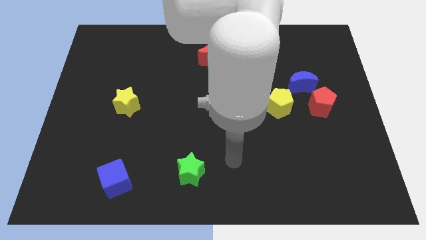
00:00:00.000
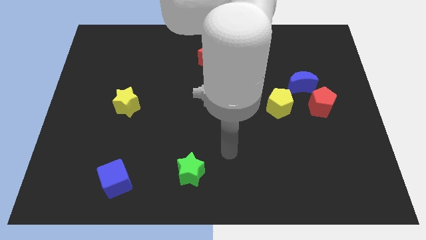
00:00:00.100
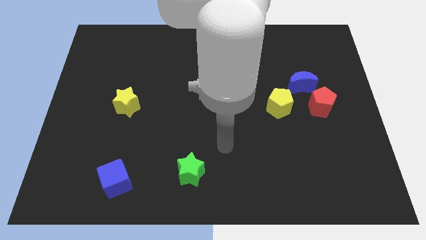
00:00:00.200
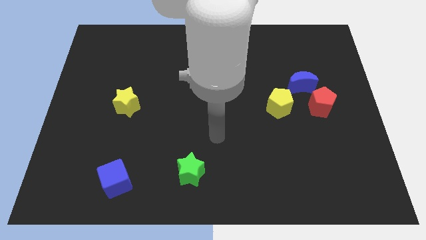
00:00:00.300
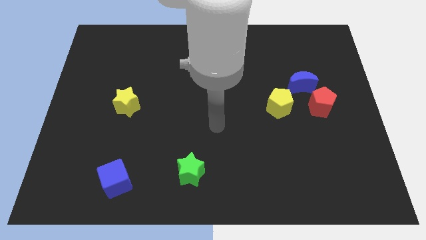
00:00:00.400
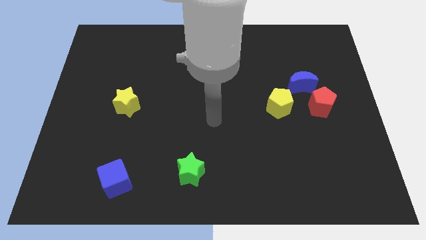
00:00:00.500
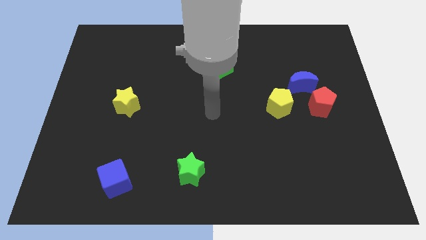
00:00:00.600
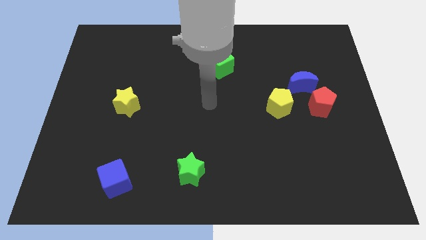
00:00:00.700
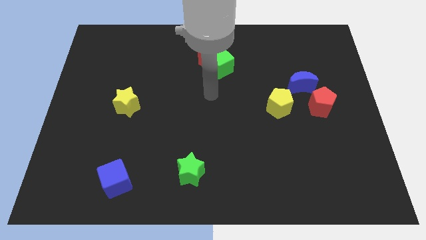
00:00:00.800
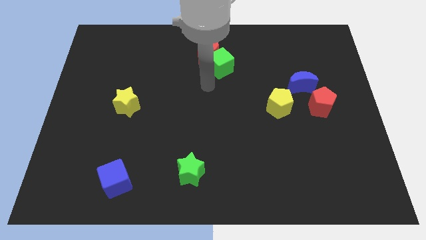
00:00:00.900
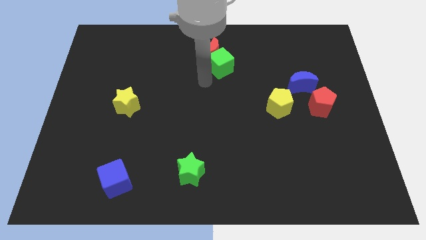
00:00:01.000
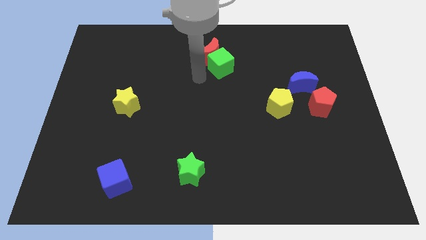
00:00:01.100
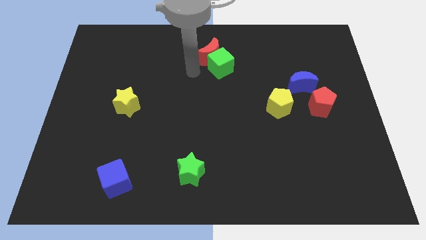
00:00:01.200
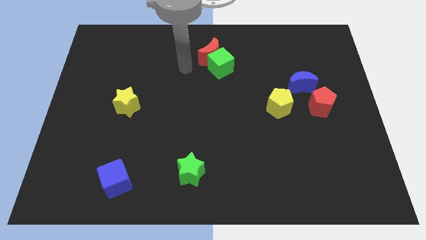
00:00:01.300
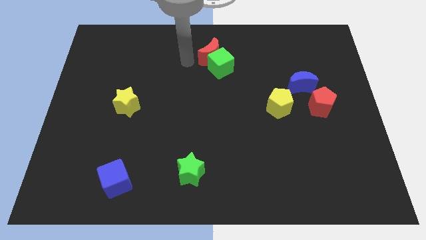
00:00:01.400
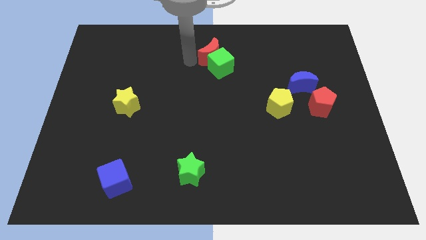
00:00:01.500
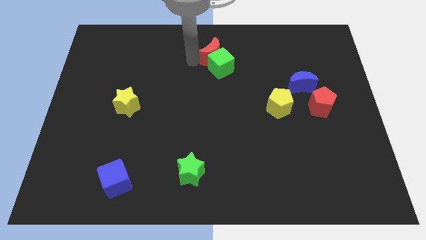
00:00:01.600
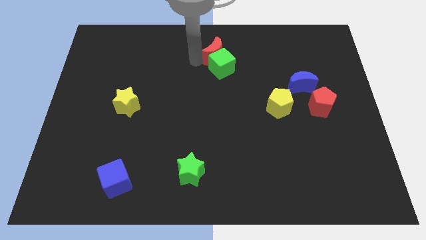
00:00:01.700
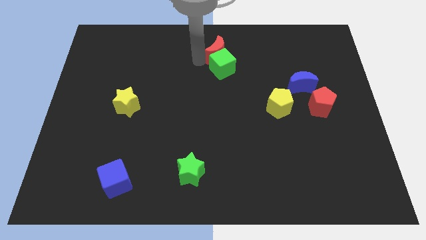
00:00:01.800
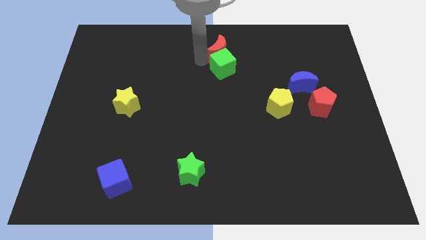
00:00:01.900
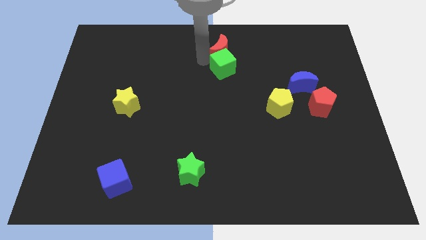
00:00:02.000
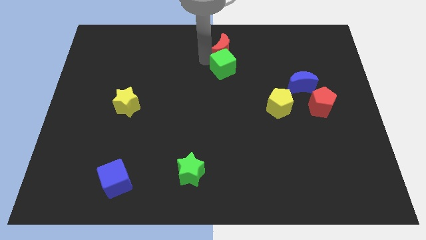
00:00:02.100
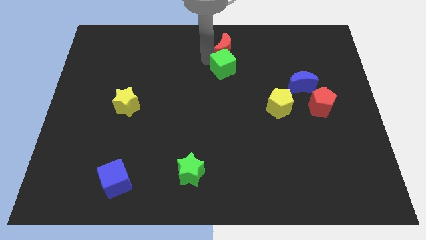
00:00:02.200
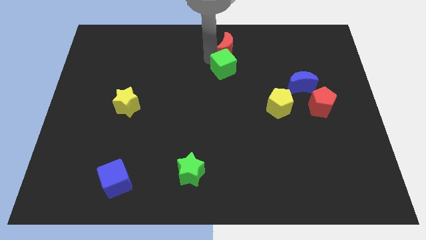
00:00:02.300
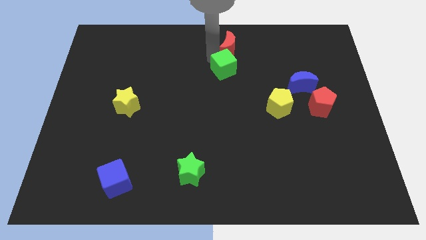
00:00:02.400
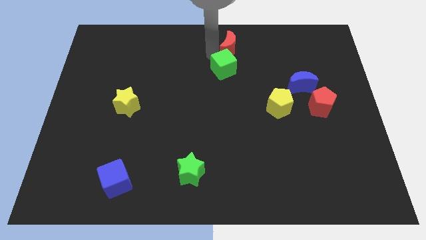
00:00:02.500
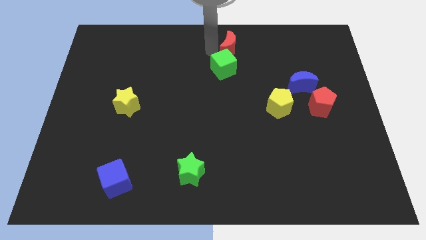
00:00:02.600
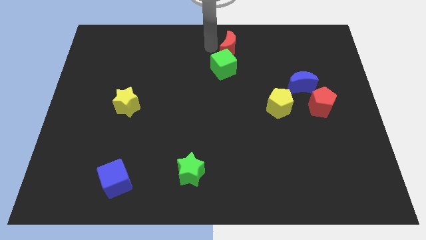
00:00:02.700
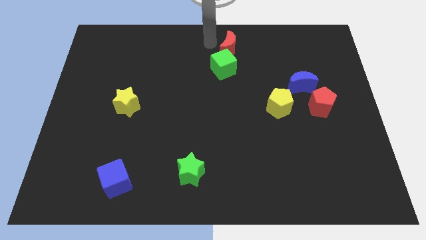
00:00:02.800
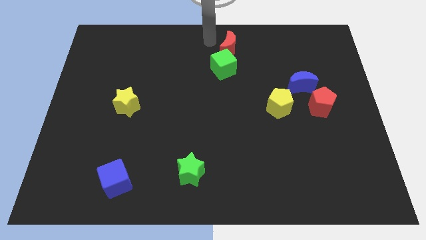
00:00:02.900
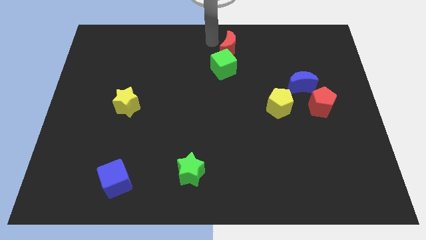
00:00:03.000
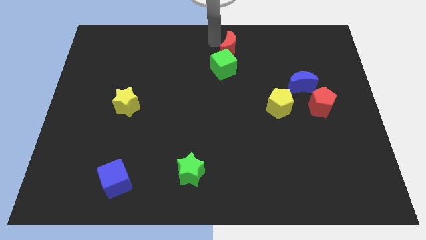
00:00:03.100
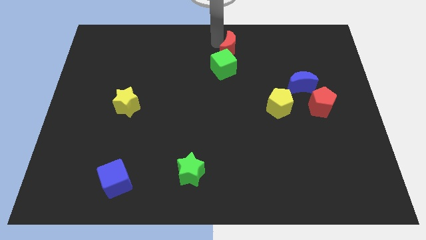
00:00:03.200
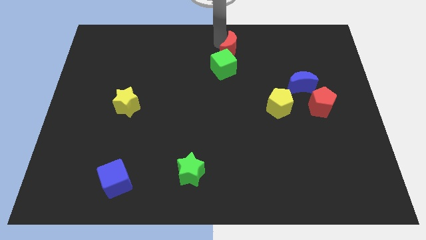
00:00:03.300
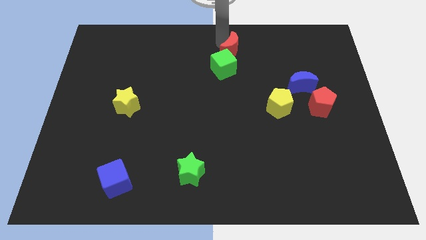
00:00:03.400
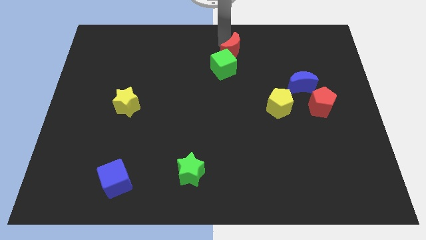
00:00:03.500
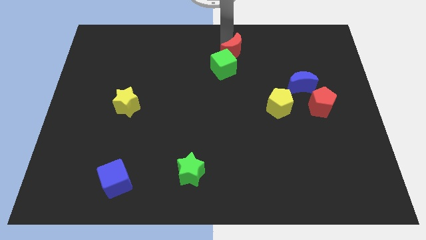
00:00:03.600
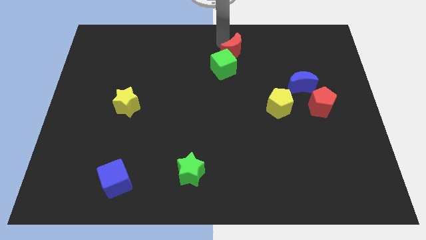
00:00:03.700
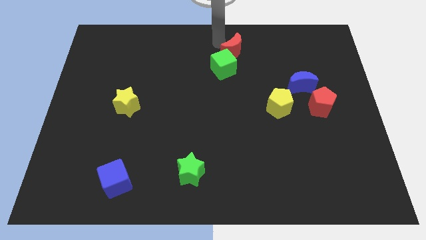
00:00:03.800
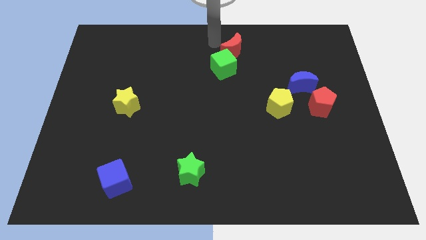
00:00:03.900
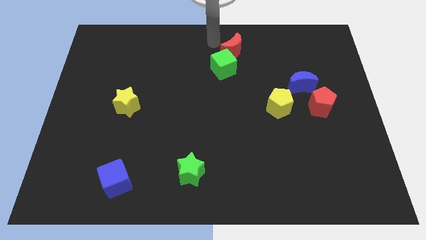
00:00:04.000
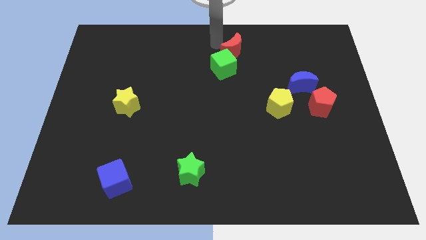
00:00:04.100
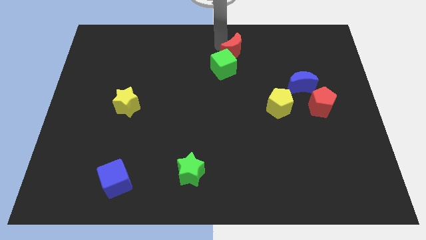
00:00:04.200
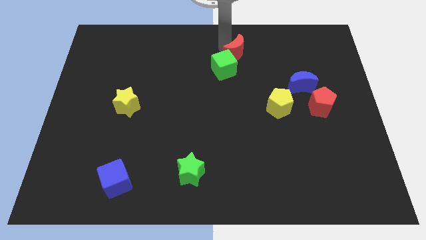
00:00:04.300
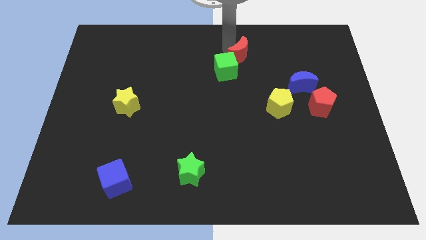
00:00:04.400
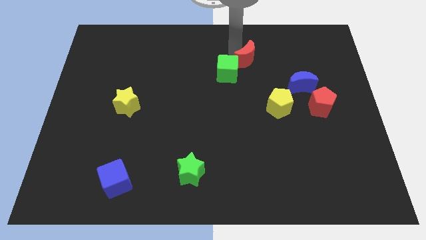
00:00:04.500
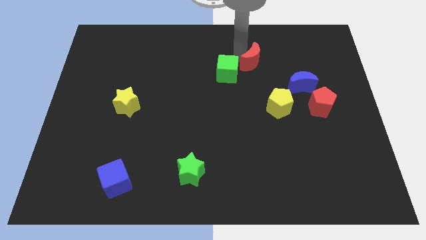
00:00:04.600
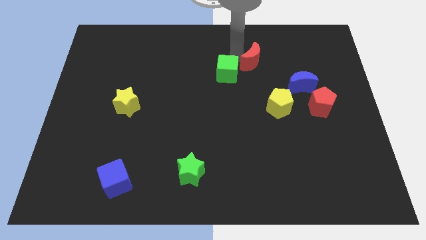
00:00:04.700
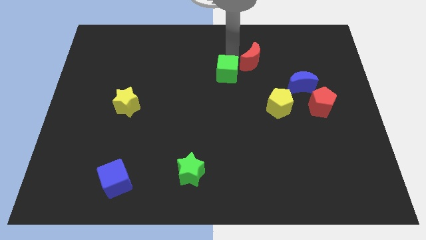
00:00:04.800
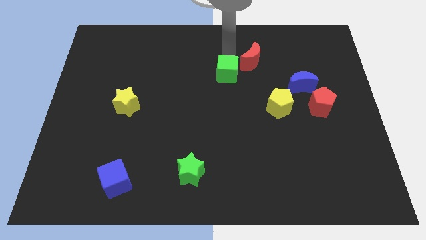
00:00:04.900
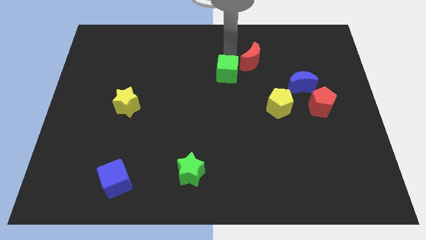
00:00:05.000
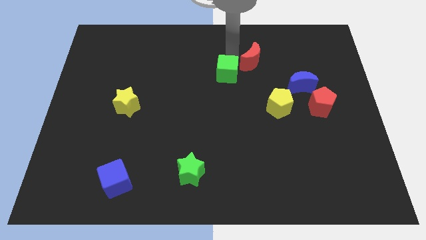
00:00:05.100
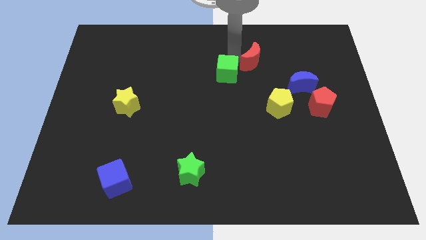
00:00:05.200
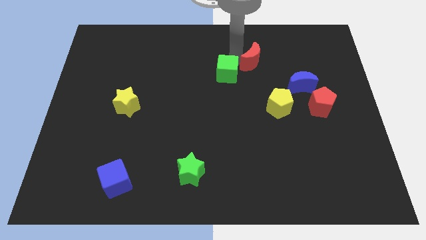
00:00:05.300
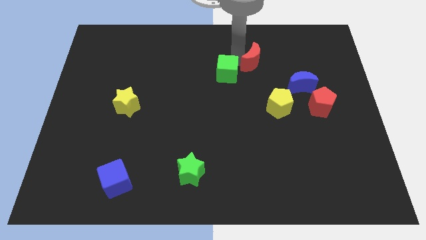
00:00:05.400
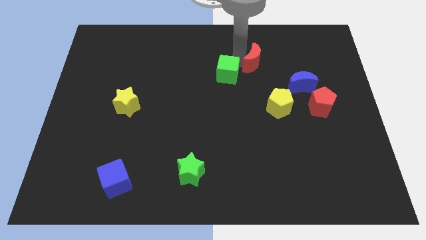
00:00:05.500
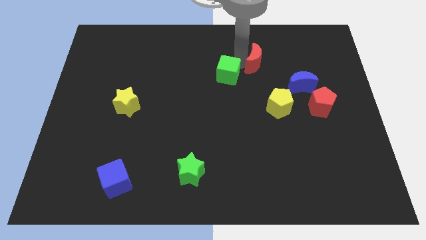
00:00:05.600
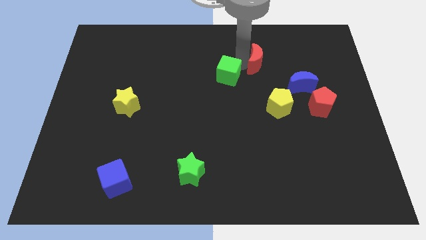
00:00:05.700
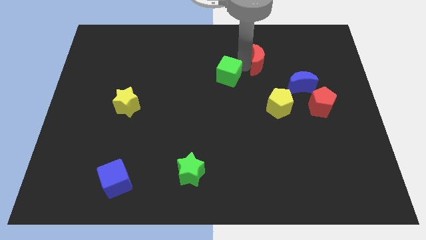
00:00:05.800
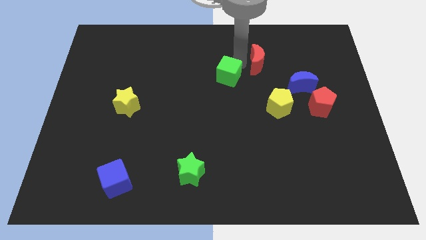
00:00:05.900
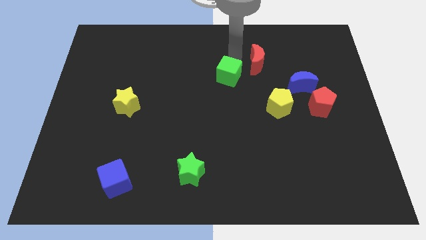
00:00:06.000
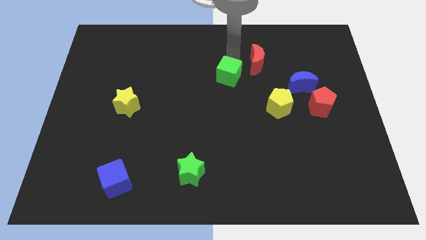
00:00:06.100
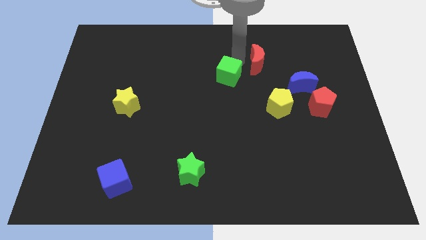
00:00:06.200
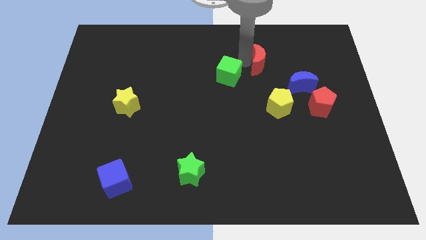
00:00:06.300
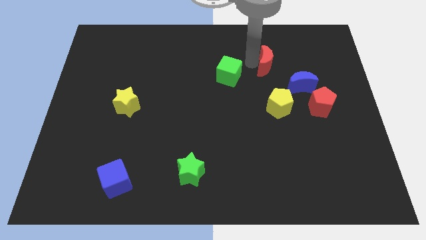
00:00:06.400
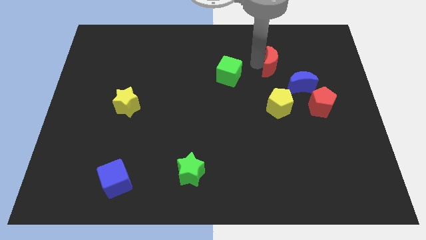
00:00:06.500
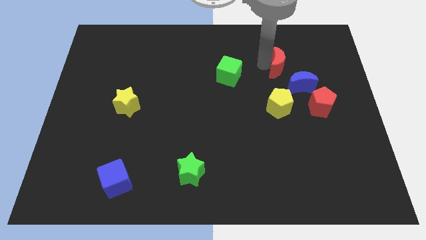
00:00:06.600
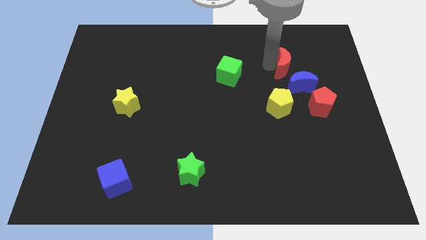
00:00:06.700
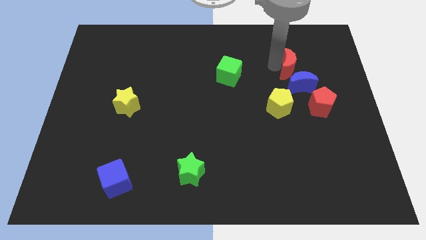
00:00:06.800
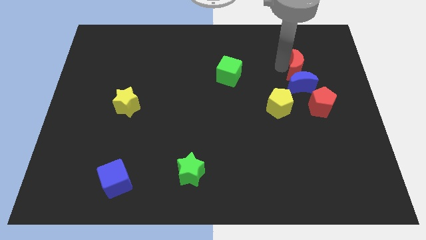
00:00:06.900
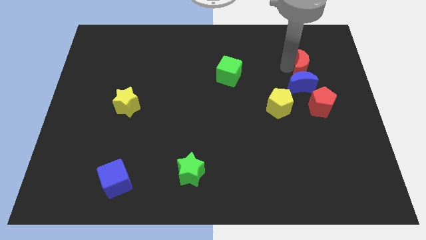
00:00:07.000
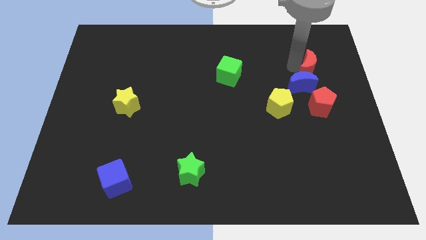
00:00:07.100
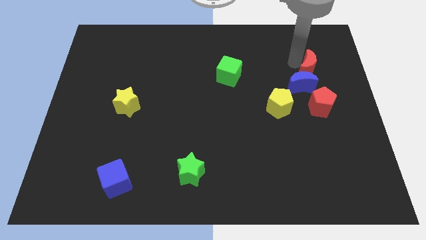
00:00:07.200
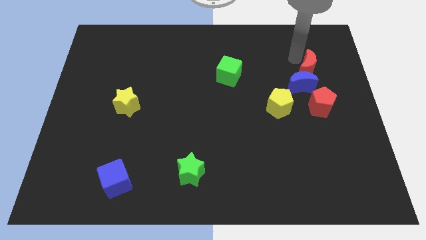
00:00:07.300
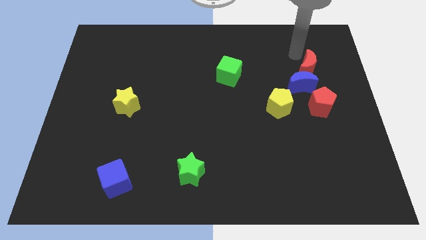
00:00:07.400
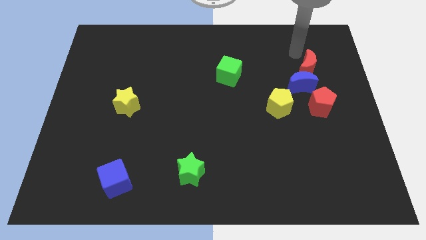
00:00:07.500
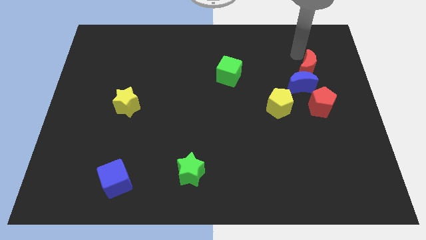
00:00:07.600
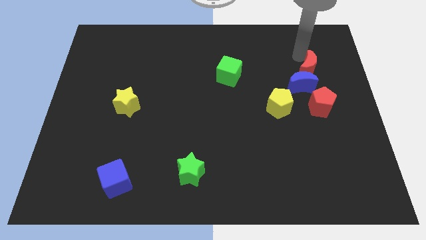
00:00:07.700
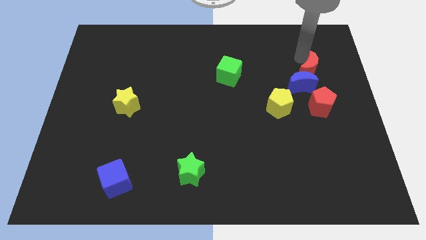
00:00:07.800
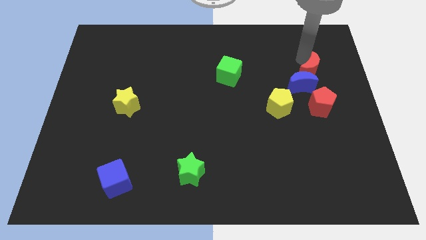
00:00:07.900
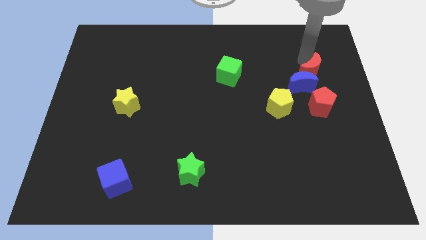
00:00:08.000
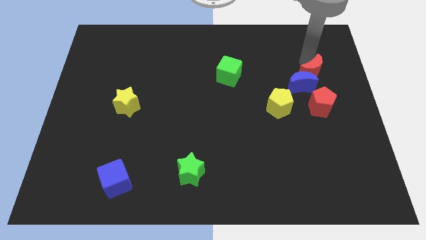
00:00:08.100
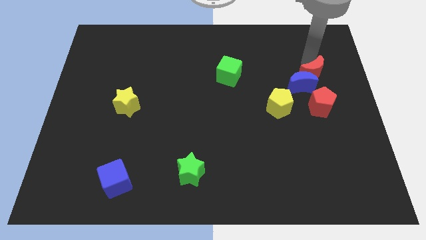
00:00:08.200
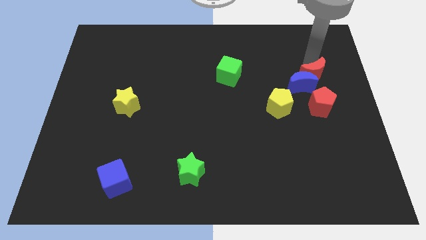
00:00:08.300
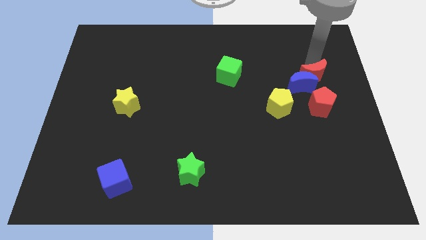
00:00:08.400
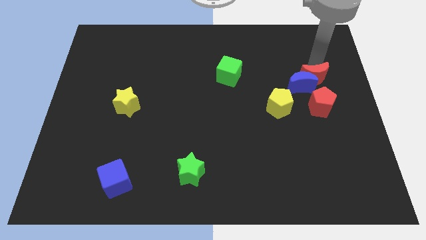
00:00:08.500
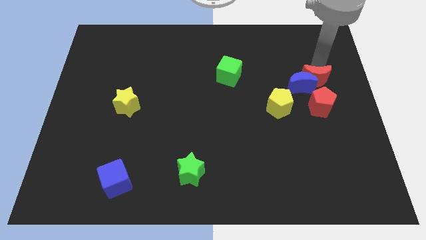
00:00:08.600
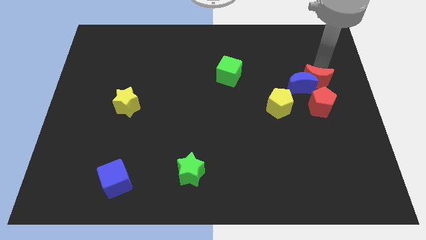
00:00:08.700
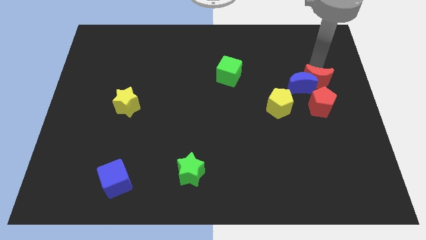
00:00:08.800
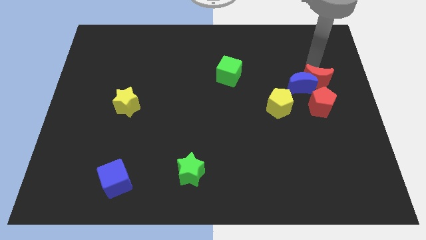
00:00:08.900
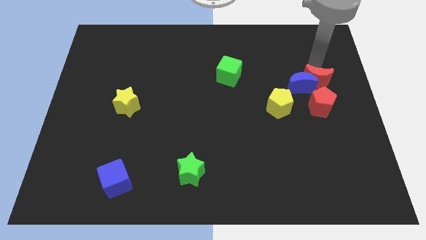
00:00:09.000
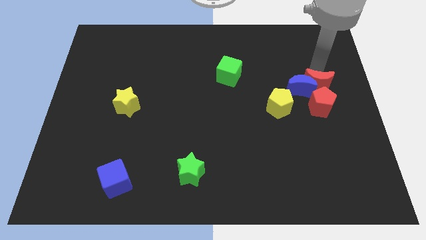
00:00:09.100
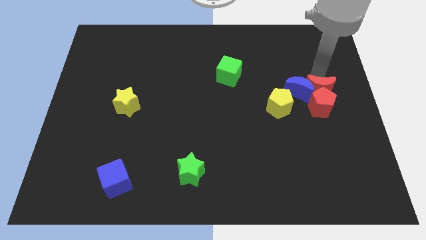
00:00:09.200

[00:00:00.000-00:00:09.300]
put the red moon close to the red pentagon
